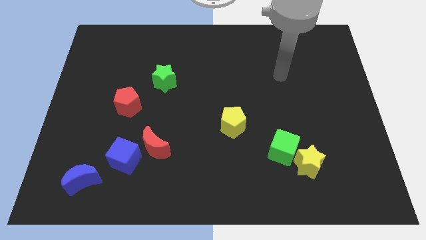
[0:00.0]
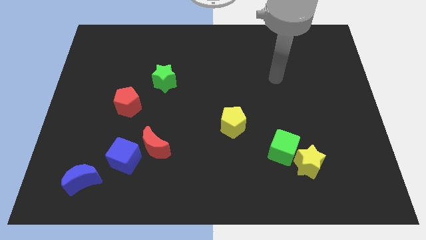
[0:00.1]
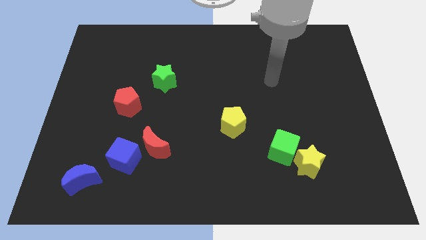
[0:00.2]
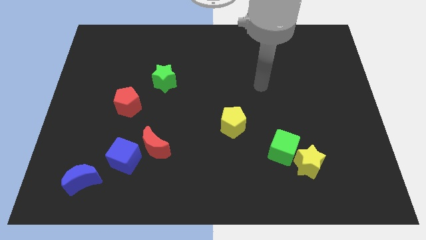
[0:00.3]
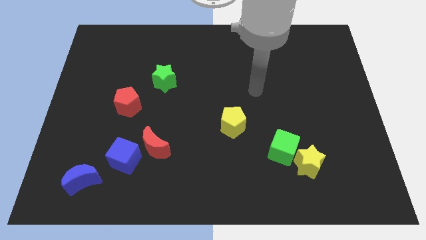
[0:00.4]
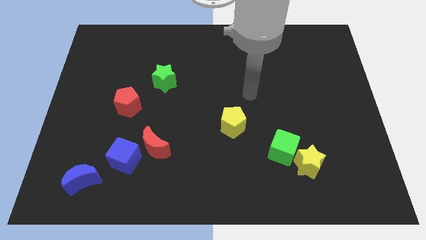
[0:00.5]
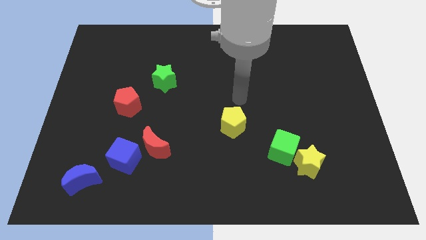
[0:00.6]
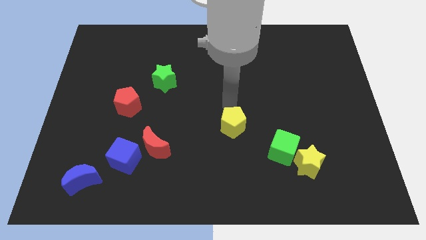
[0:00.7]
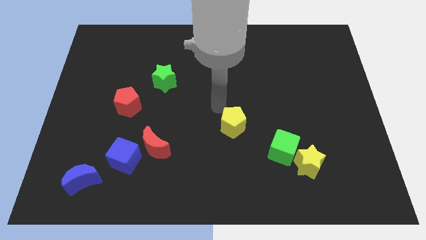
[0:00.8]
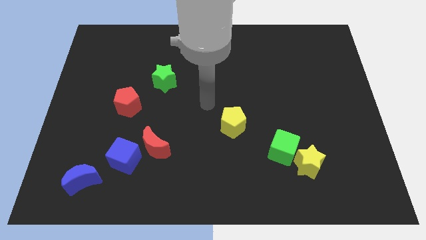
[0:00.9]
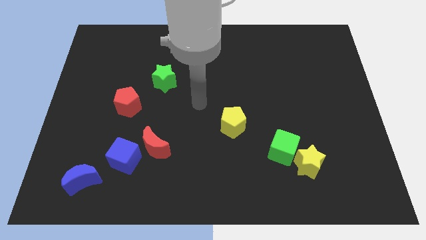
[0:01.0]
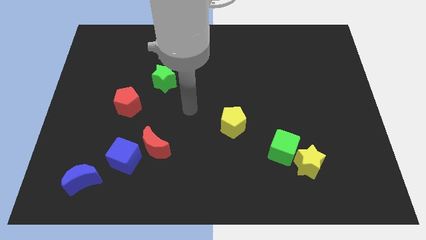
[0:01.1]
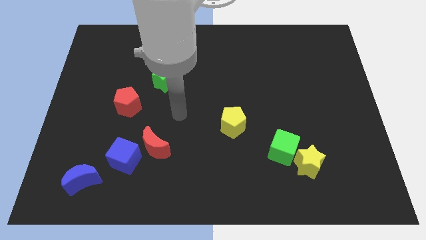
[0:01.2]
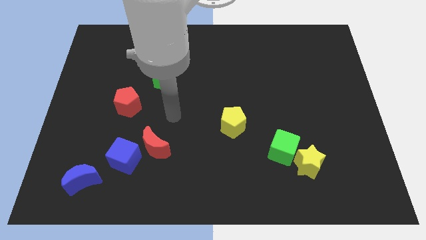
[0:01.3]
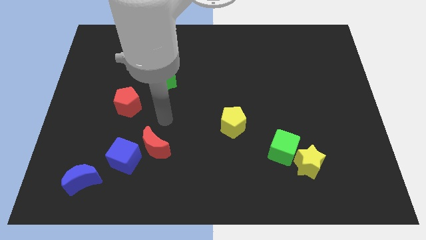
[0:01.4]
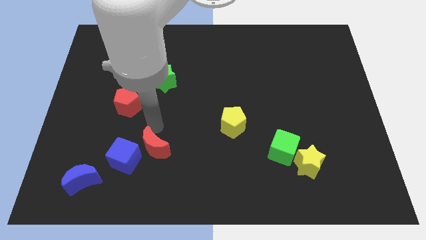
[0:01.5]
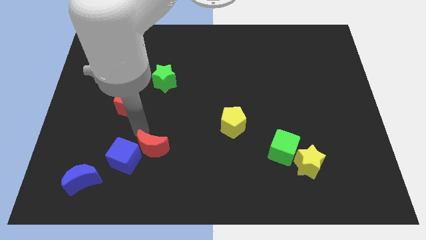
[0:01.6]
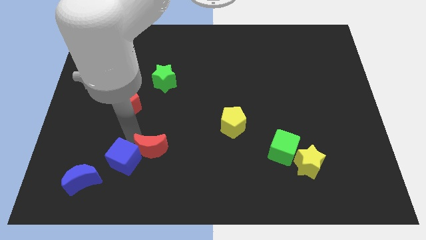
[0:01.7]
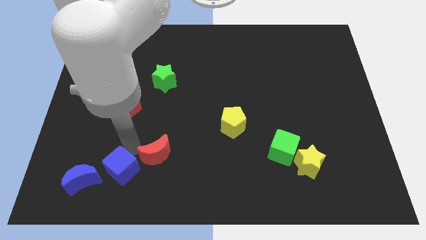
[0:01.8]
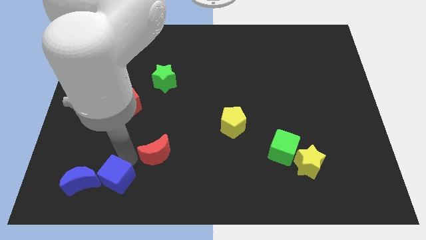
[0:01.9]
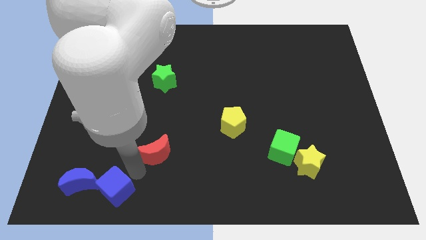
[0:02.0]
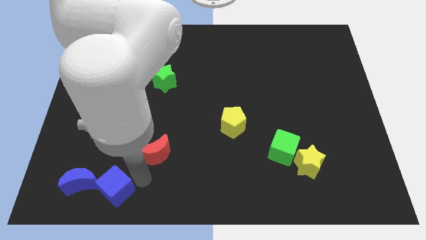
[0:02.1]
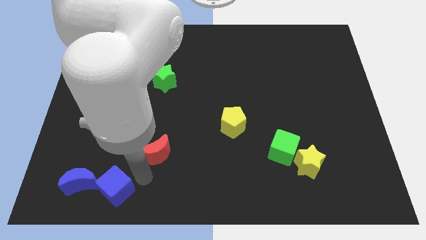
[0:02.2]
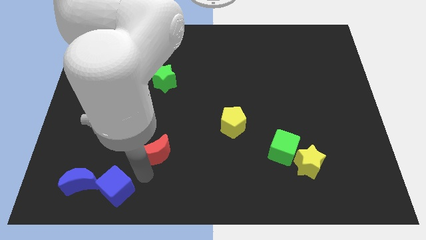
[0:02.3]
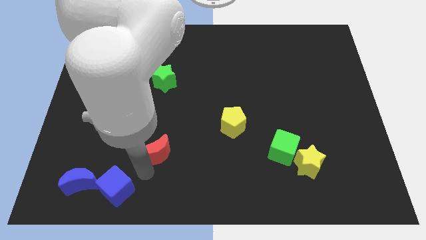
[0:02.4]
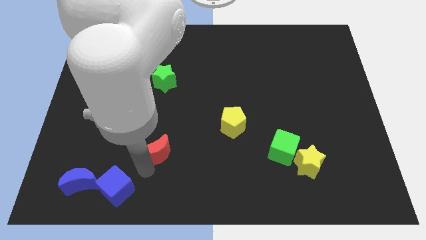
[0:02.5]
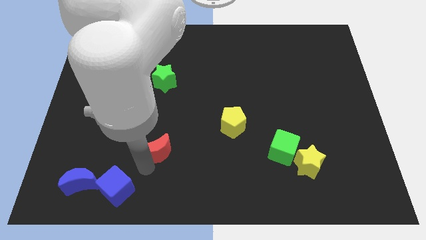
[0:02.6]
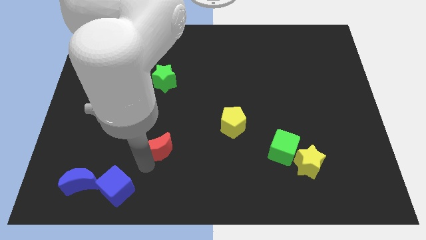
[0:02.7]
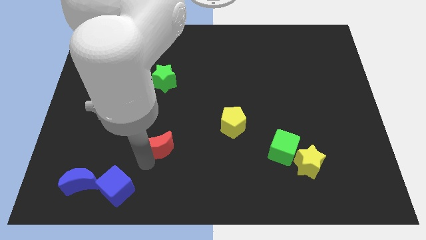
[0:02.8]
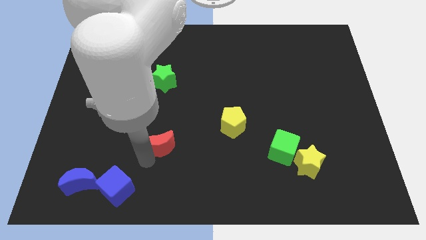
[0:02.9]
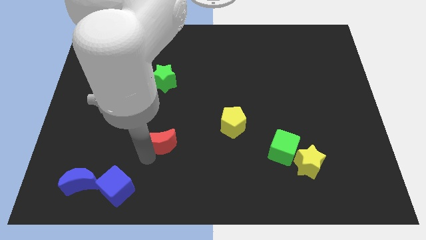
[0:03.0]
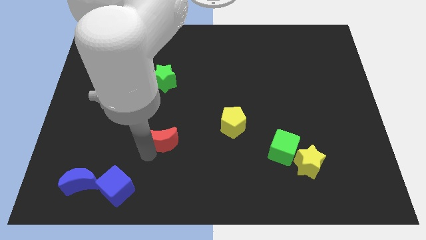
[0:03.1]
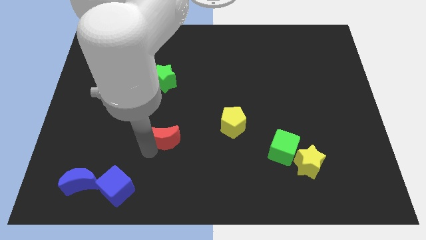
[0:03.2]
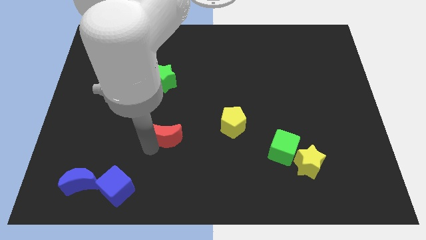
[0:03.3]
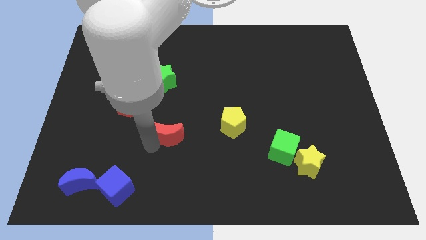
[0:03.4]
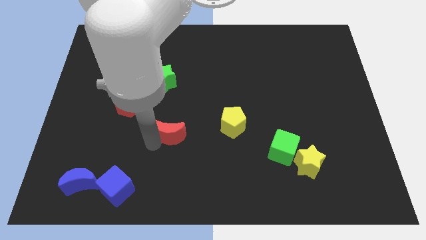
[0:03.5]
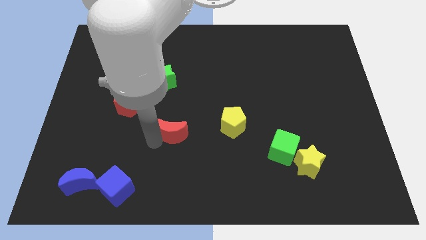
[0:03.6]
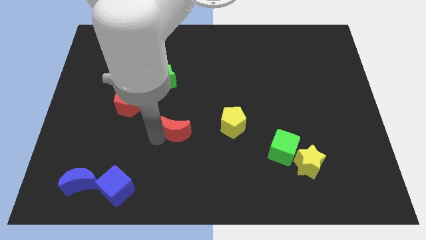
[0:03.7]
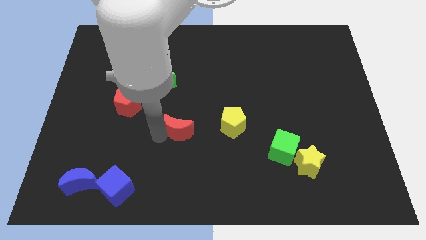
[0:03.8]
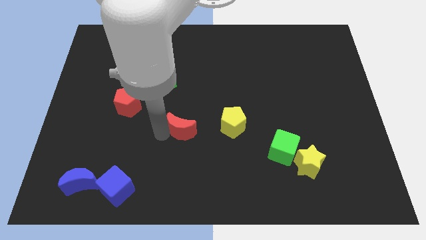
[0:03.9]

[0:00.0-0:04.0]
move the red moon upwards and right a little

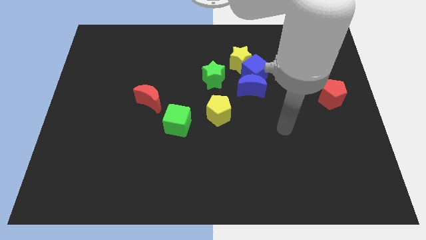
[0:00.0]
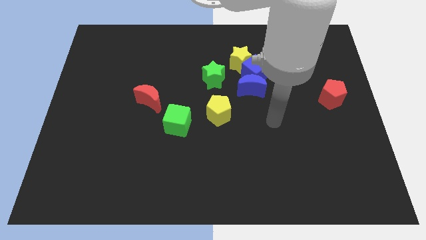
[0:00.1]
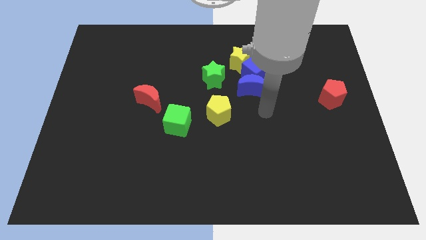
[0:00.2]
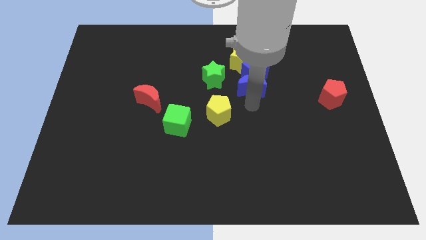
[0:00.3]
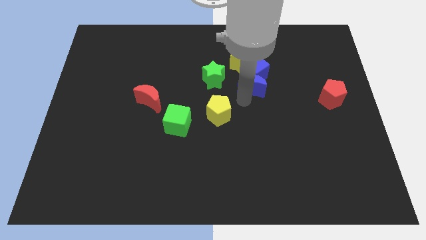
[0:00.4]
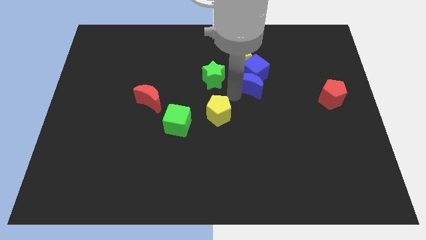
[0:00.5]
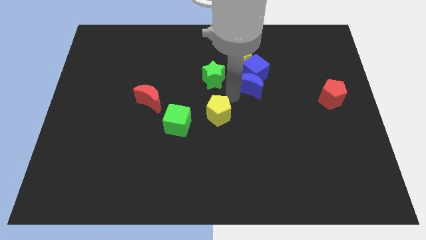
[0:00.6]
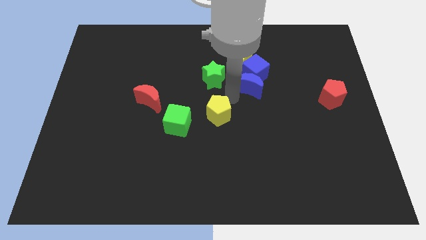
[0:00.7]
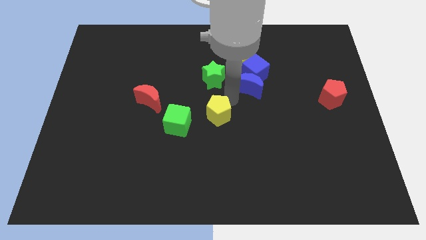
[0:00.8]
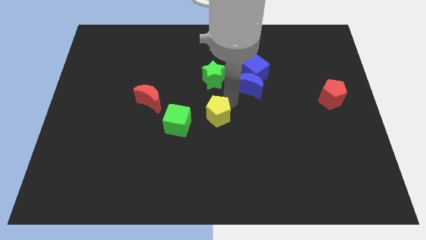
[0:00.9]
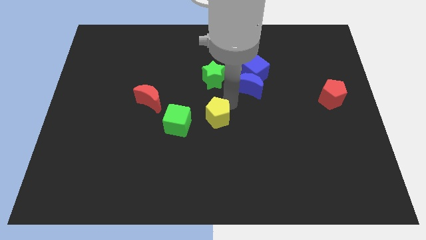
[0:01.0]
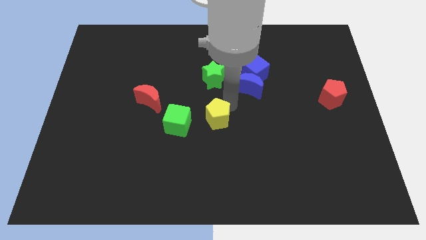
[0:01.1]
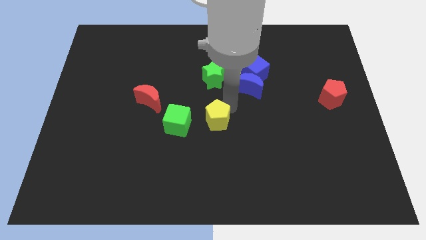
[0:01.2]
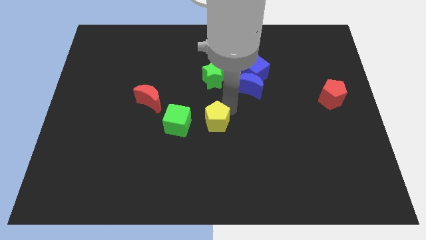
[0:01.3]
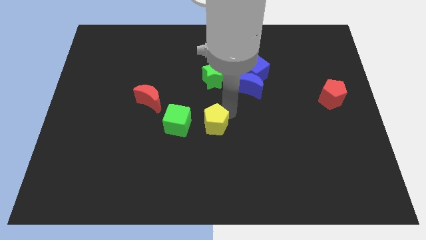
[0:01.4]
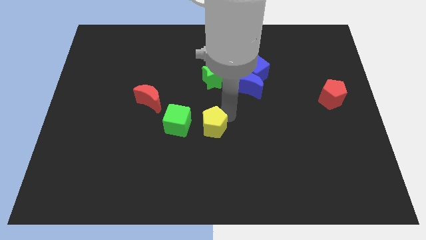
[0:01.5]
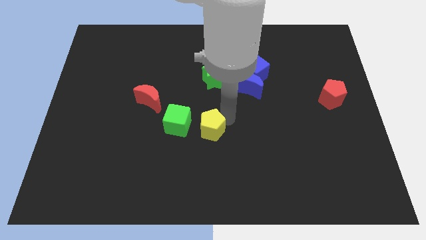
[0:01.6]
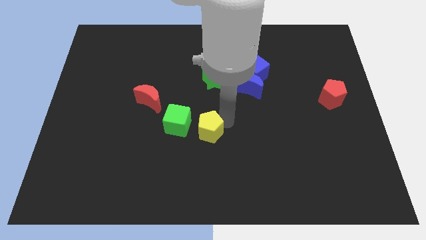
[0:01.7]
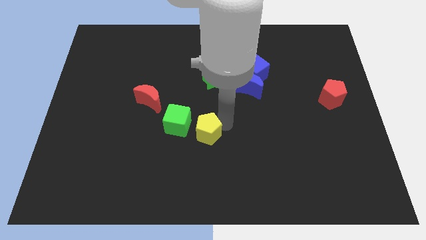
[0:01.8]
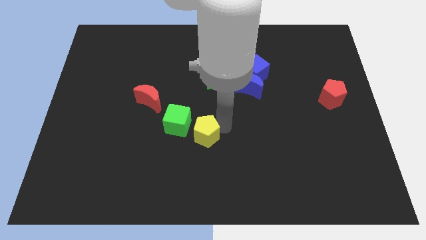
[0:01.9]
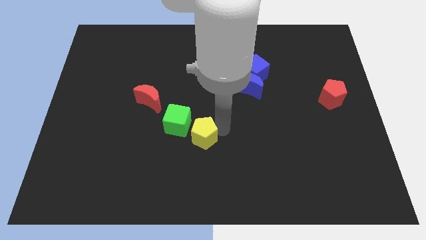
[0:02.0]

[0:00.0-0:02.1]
slide the yellow pentagon down and left a bit

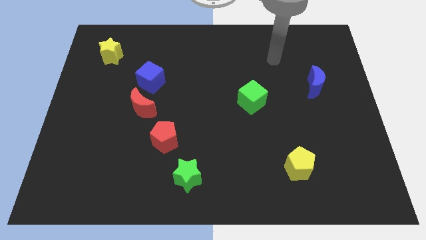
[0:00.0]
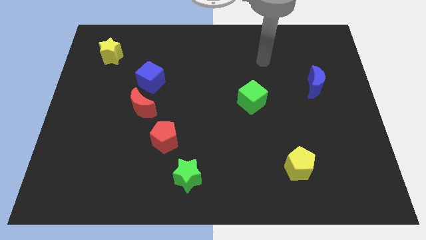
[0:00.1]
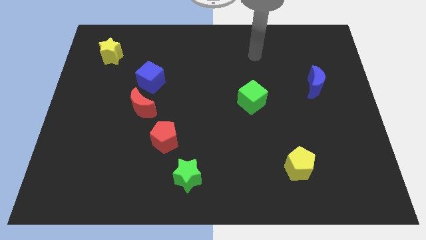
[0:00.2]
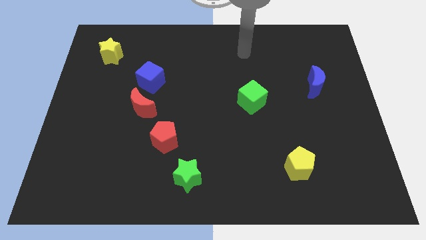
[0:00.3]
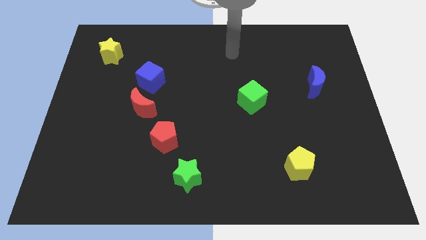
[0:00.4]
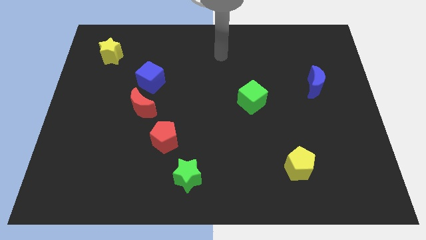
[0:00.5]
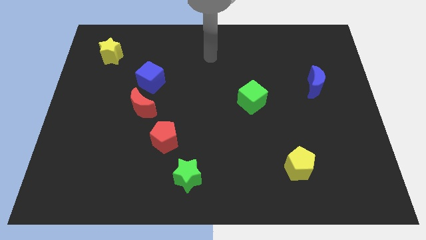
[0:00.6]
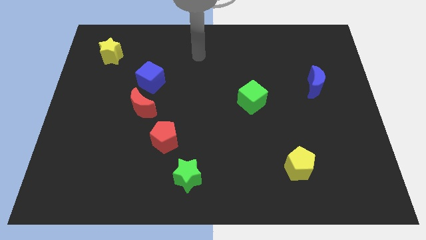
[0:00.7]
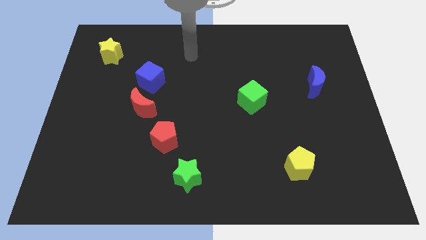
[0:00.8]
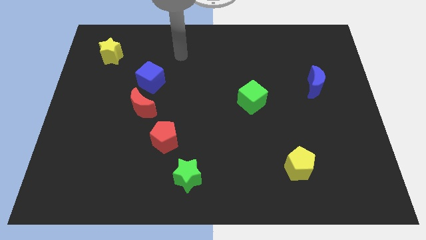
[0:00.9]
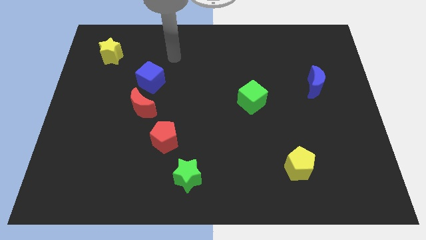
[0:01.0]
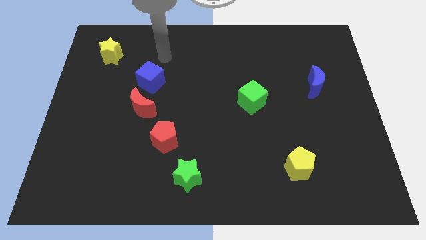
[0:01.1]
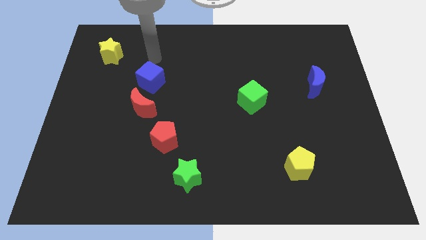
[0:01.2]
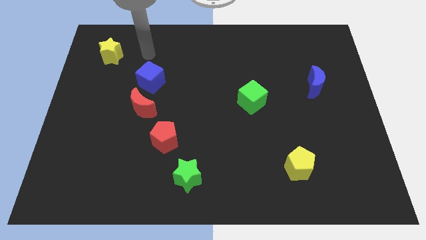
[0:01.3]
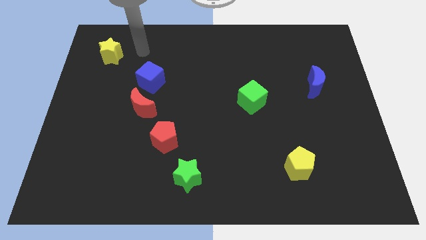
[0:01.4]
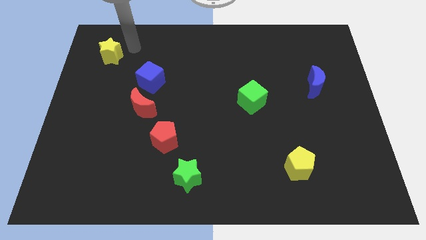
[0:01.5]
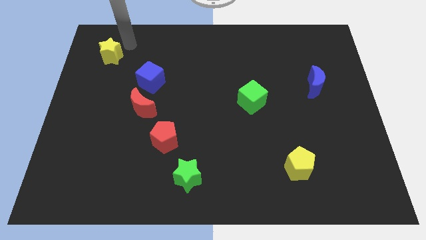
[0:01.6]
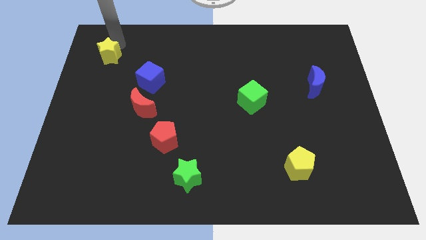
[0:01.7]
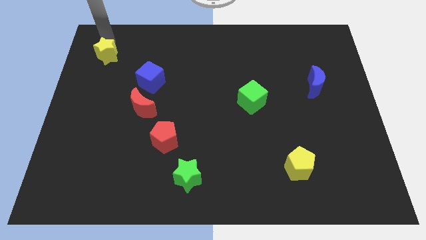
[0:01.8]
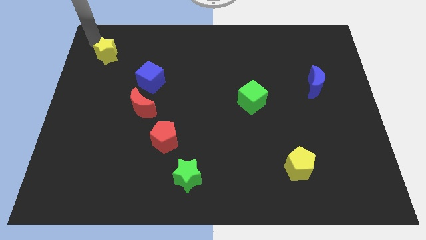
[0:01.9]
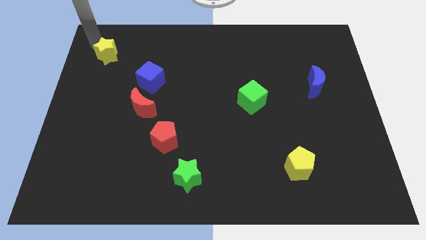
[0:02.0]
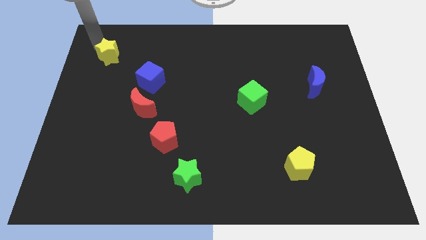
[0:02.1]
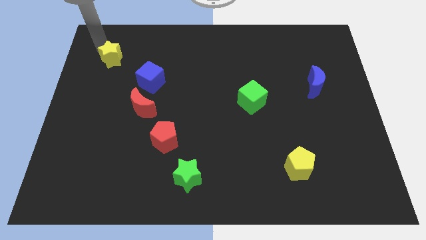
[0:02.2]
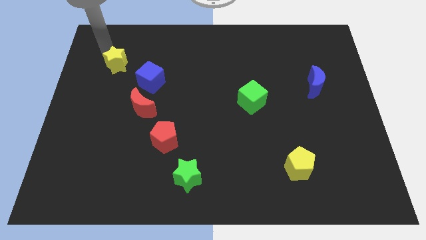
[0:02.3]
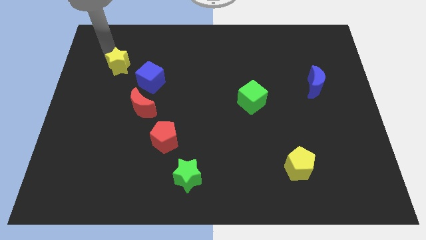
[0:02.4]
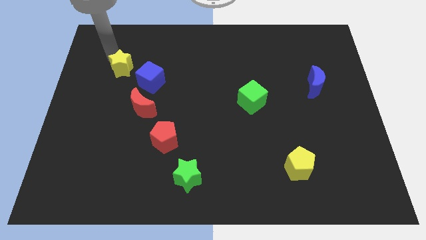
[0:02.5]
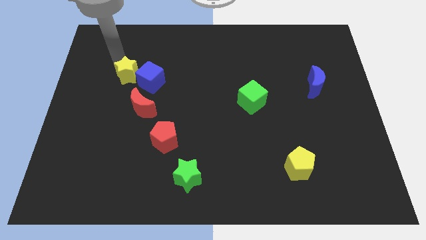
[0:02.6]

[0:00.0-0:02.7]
push the yellow star downwards and to the right diagonally slightly
